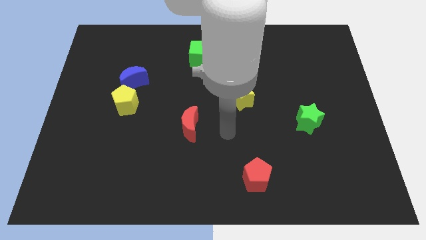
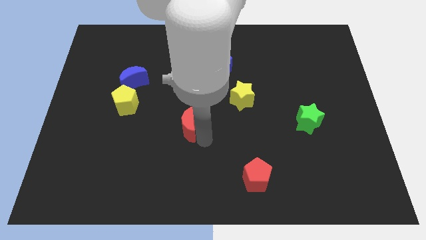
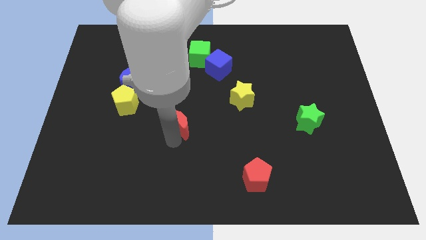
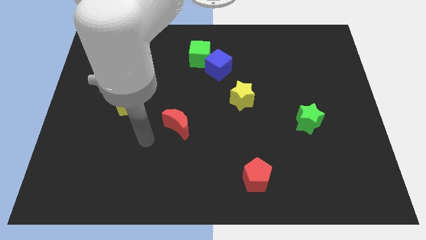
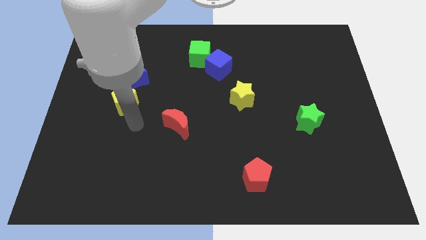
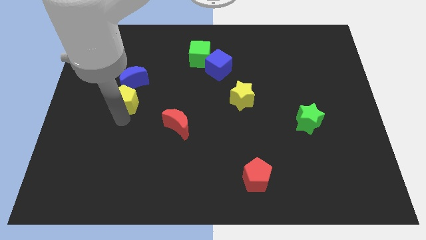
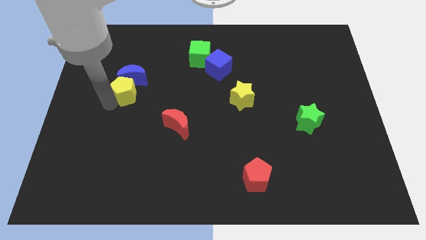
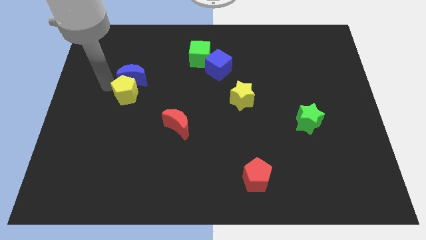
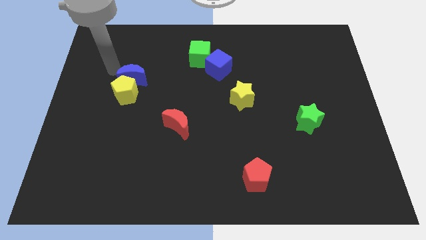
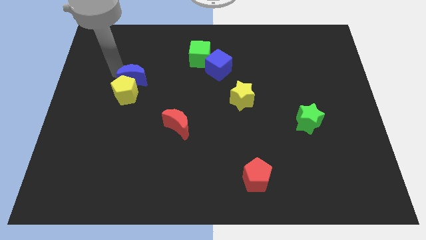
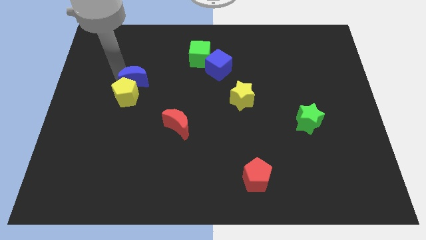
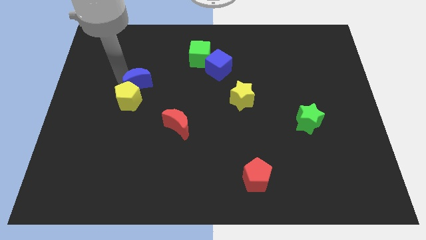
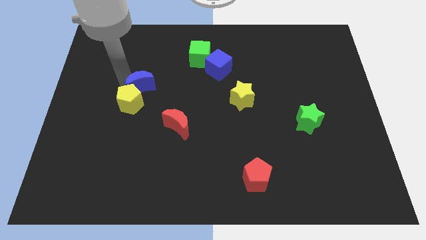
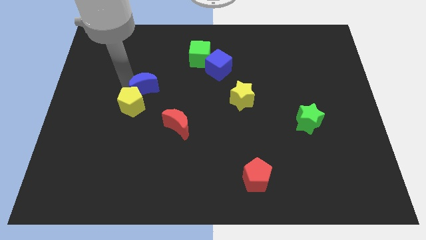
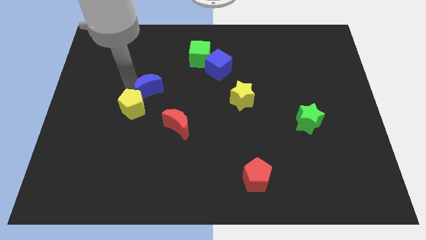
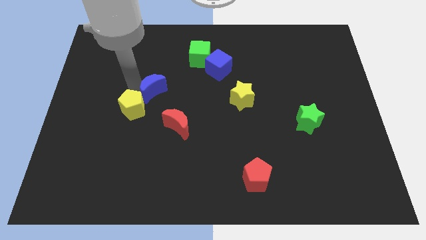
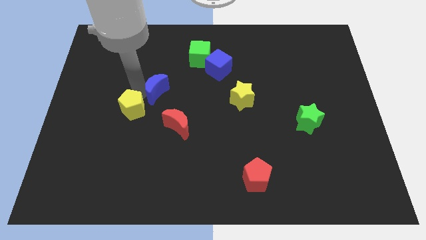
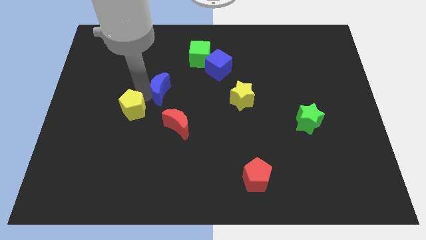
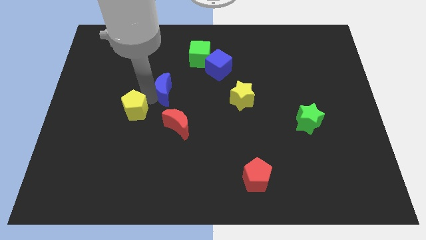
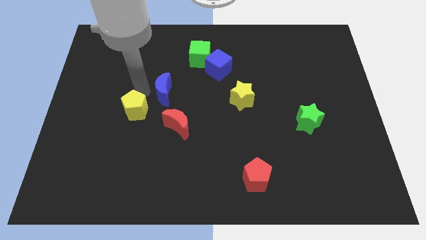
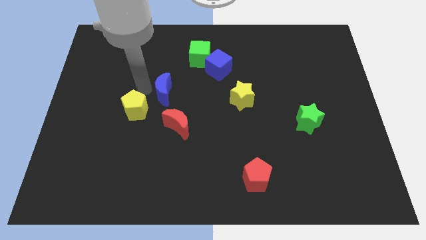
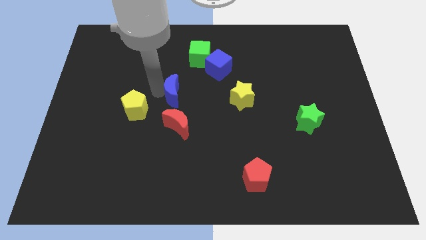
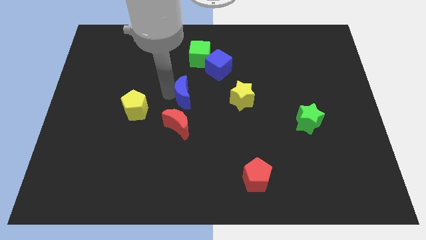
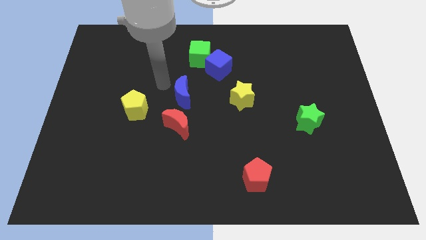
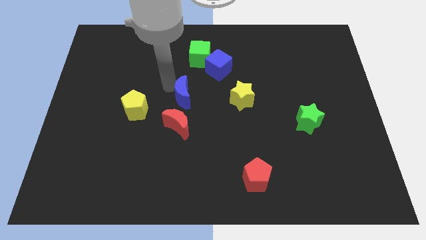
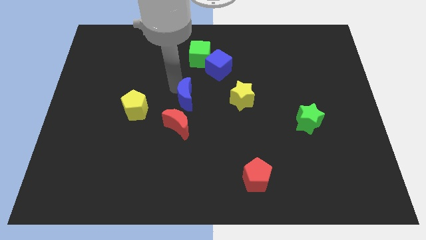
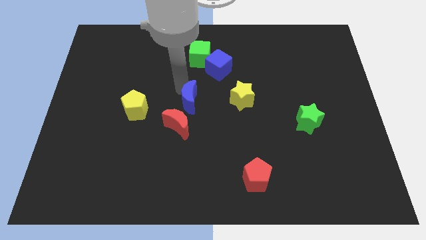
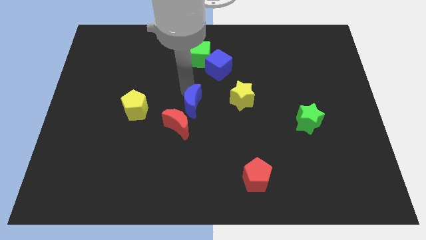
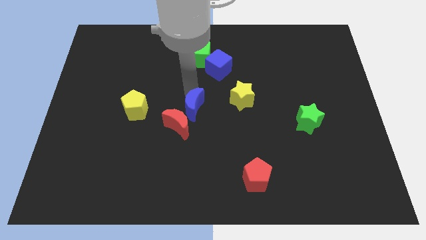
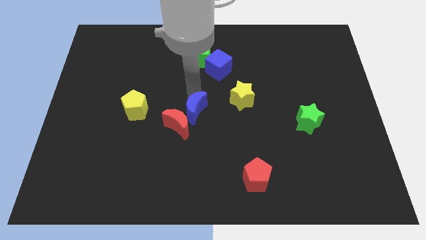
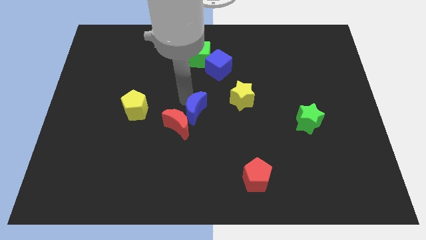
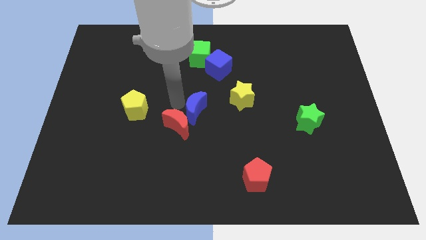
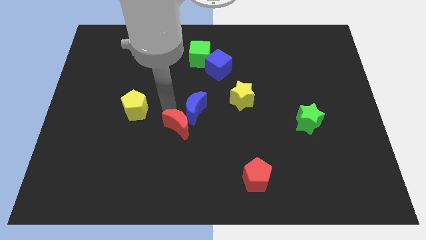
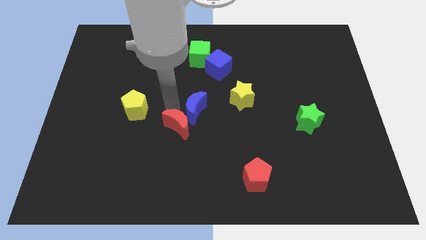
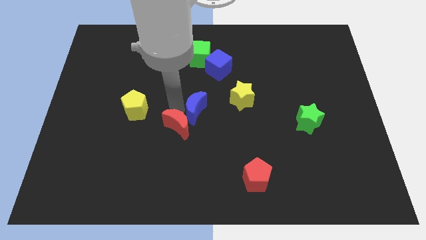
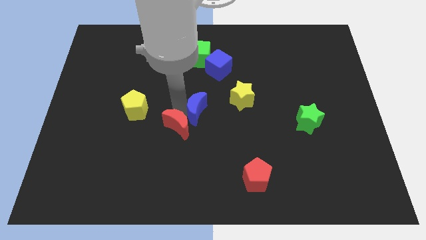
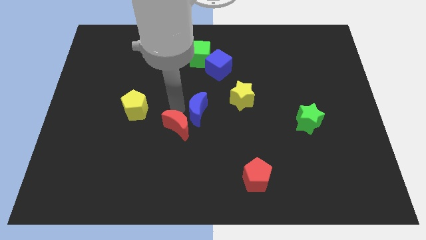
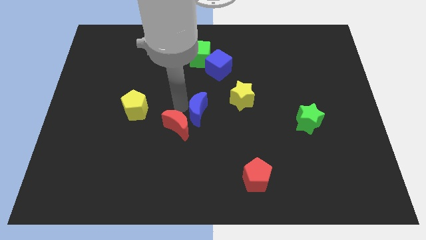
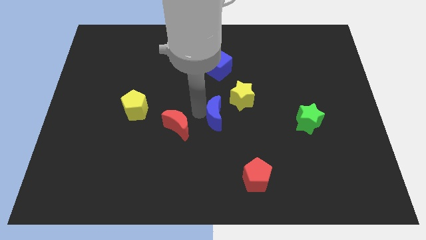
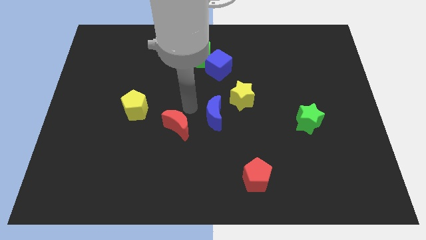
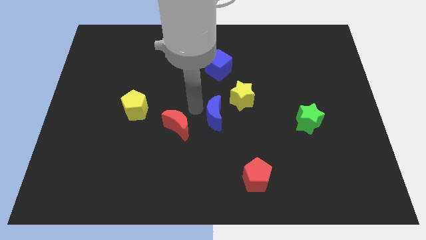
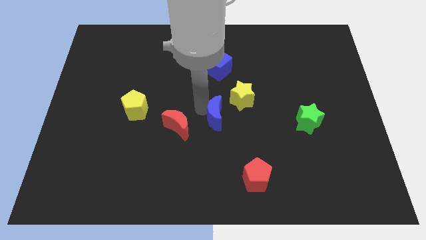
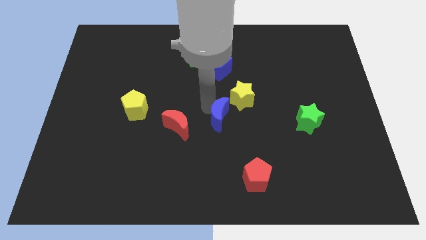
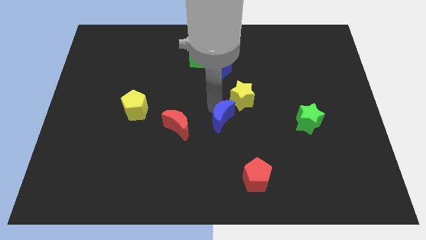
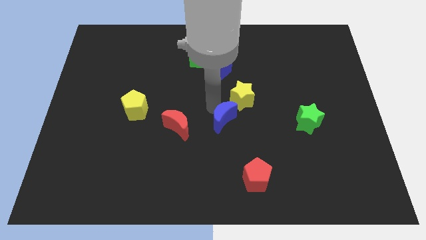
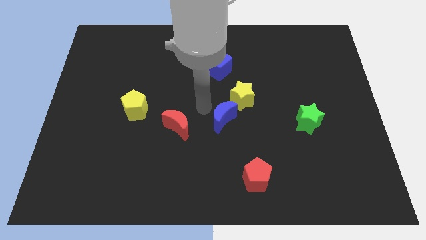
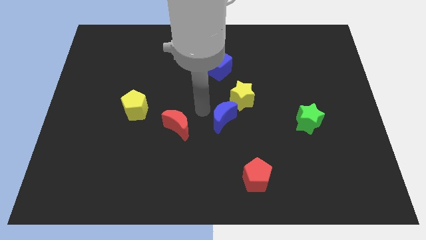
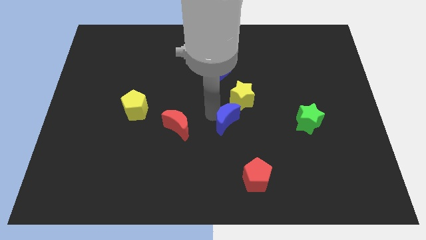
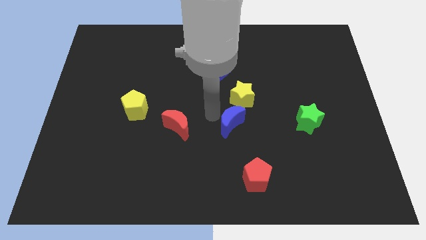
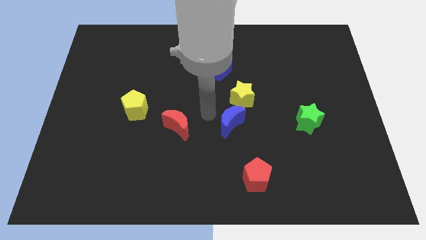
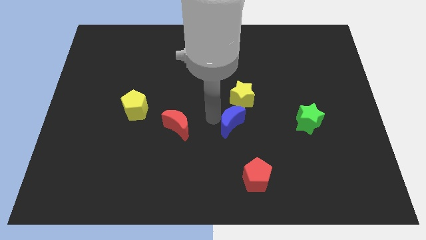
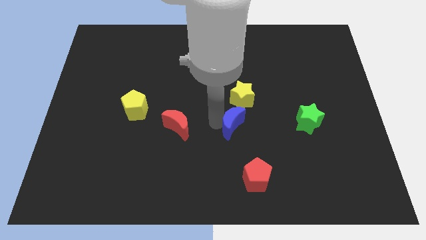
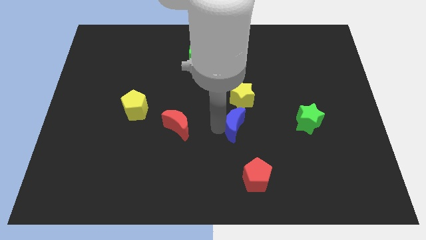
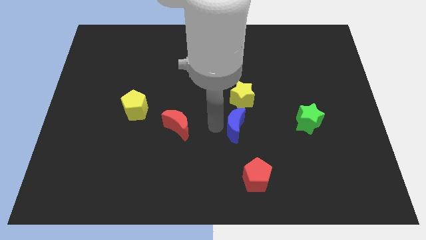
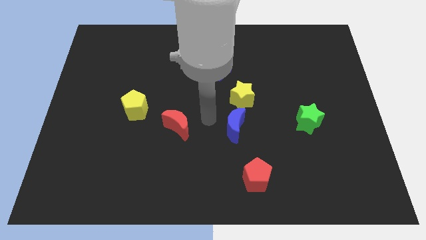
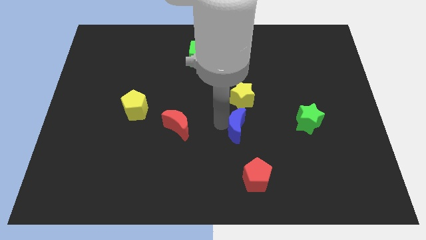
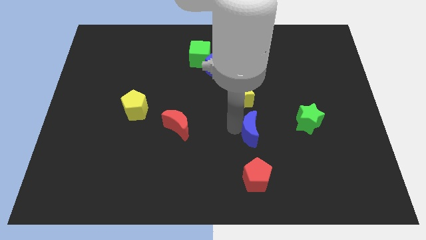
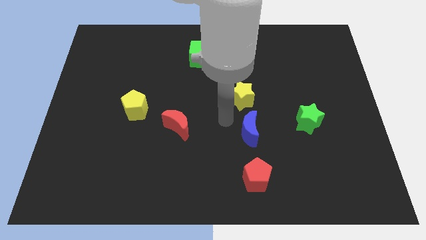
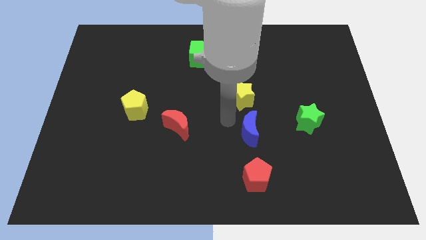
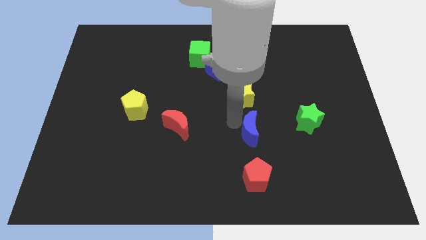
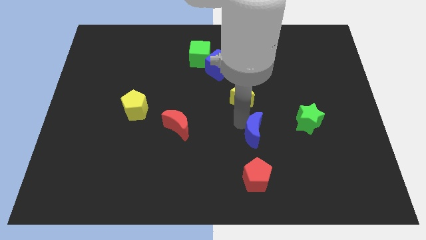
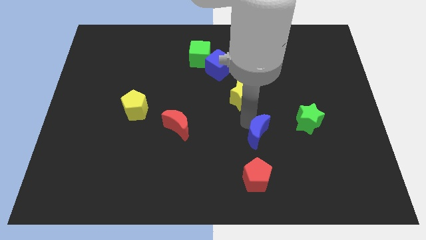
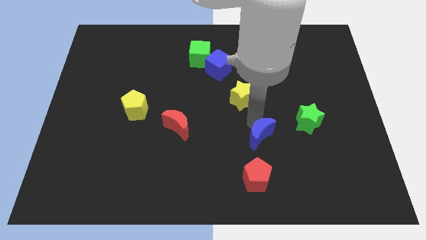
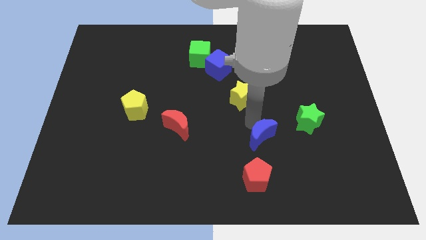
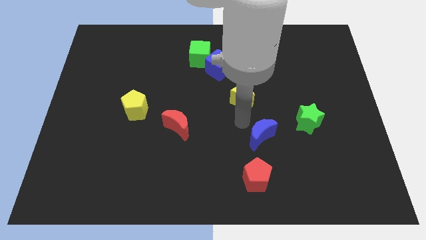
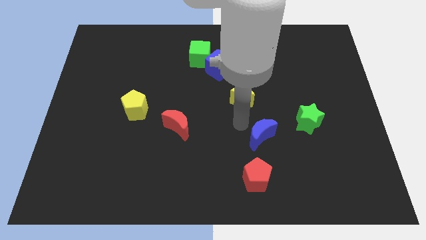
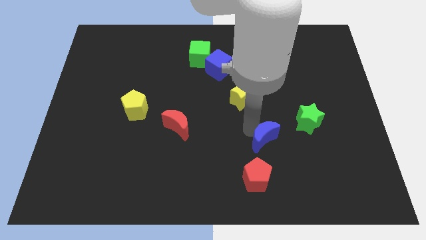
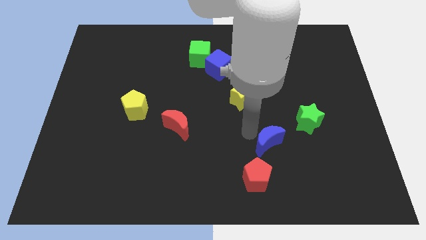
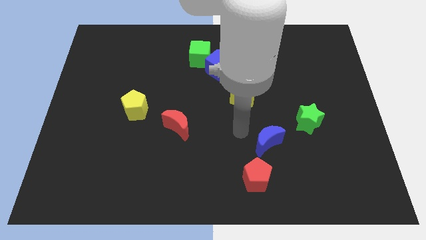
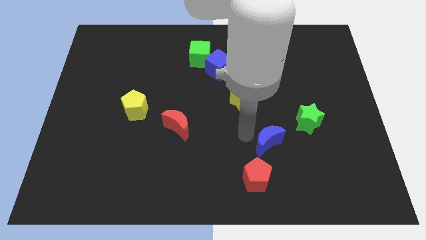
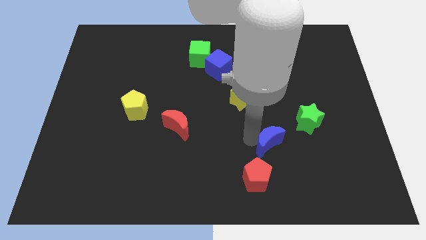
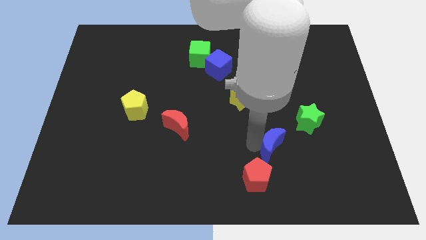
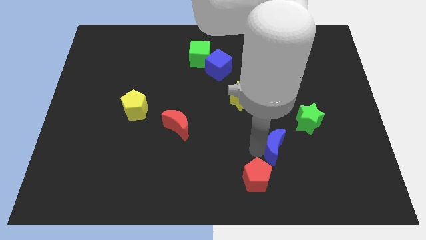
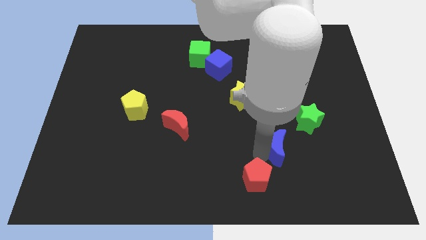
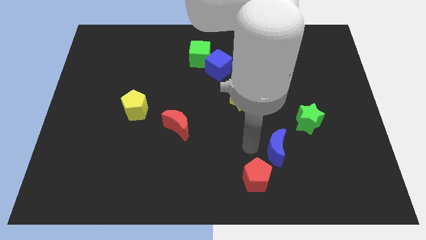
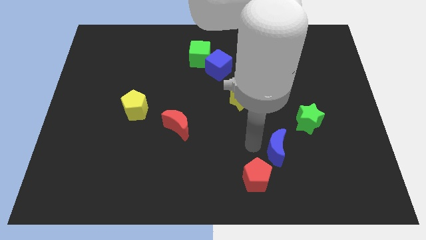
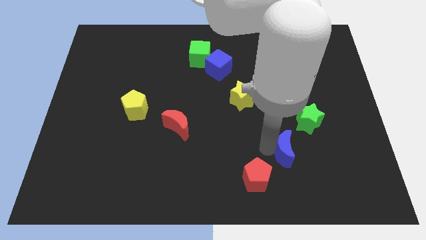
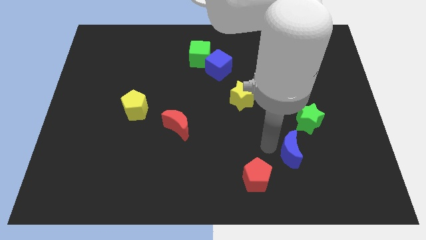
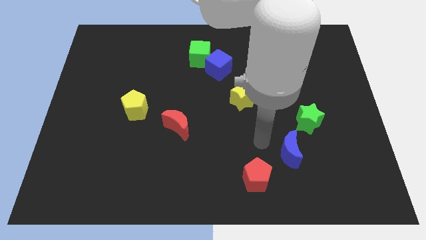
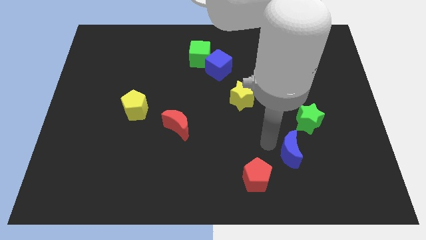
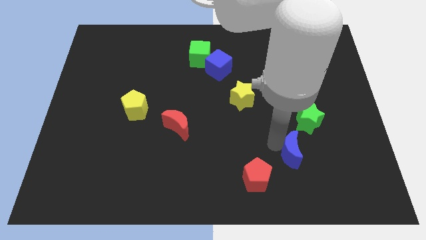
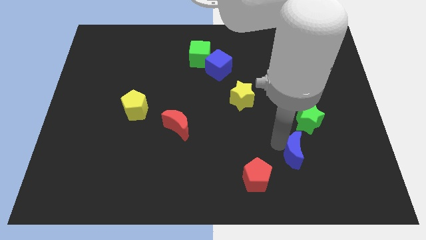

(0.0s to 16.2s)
move the blue moon to the bottom of the green star
